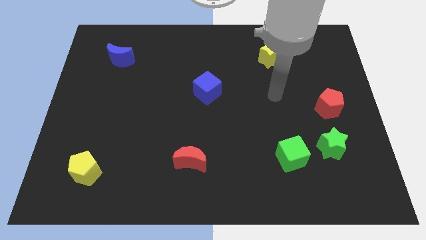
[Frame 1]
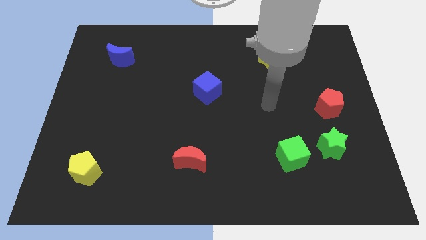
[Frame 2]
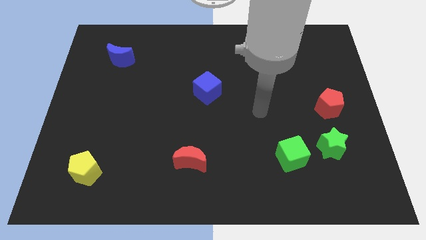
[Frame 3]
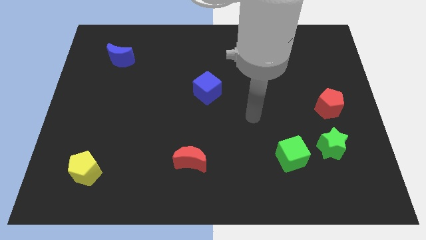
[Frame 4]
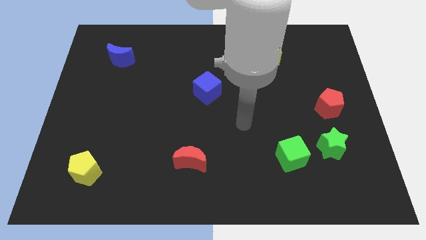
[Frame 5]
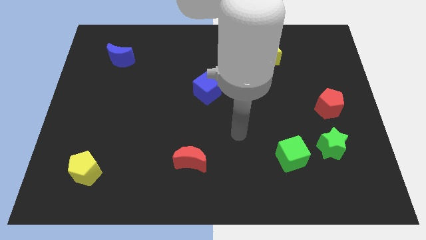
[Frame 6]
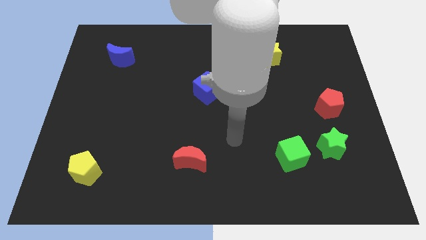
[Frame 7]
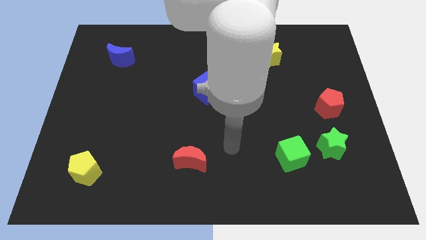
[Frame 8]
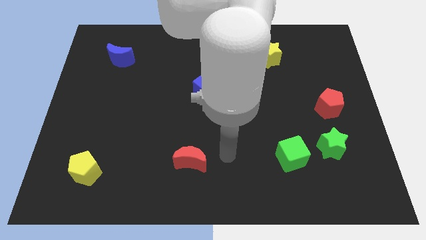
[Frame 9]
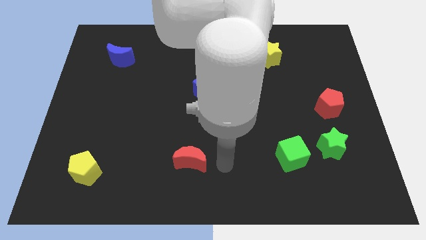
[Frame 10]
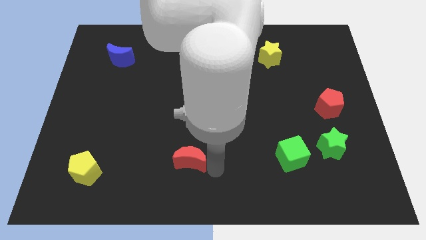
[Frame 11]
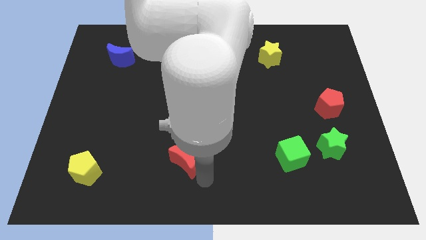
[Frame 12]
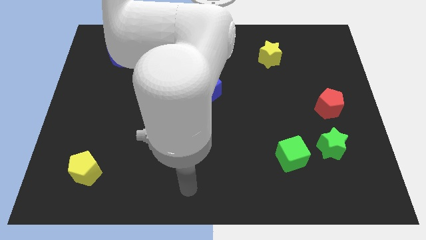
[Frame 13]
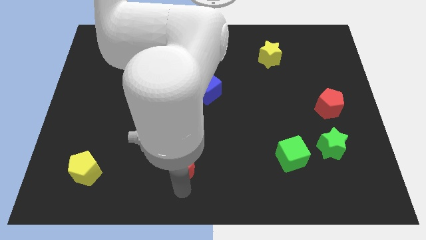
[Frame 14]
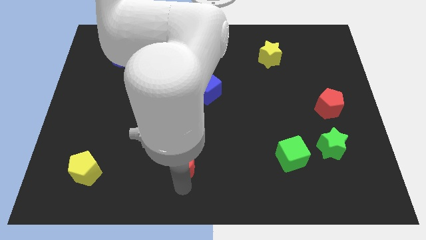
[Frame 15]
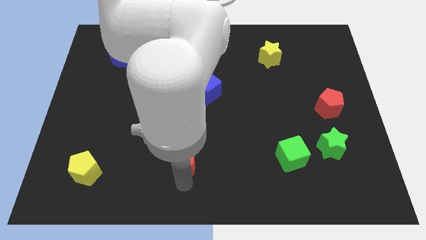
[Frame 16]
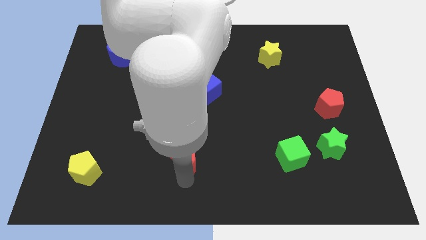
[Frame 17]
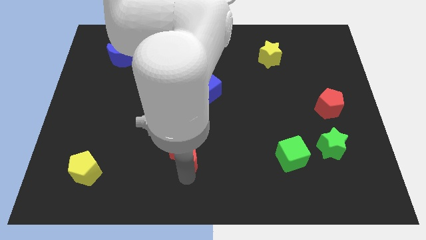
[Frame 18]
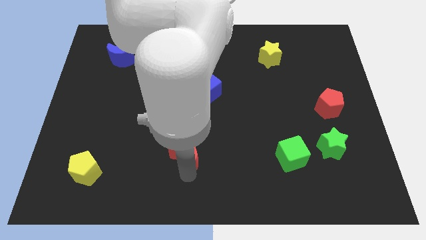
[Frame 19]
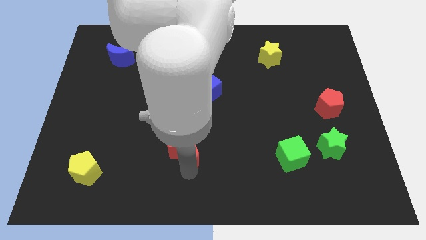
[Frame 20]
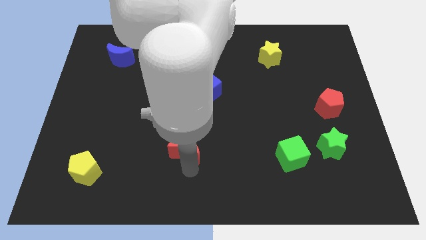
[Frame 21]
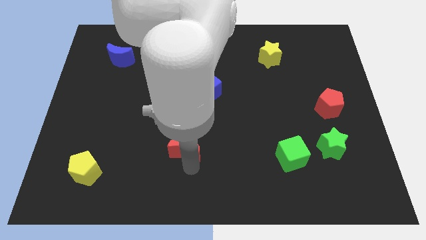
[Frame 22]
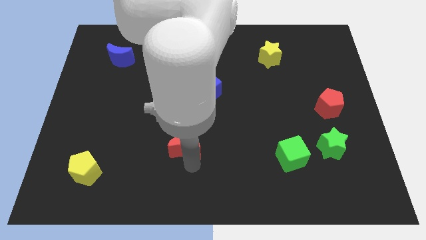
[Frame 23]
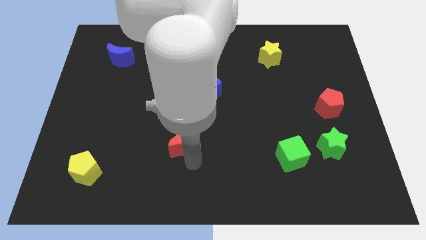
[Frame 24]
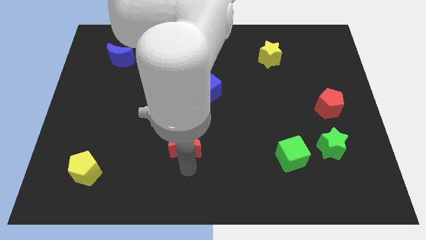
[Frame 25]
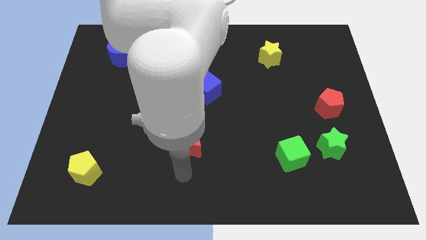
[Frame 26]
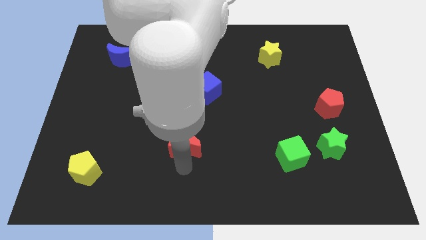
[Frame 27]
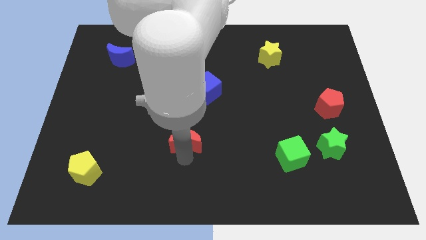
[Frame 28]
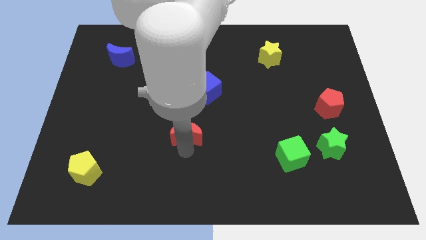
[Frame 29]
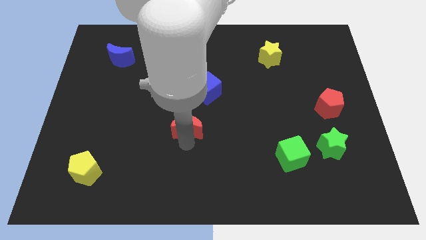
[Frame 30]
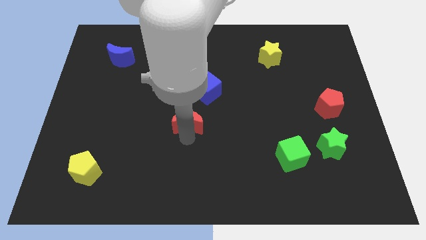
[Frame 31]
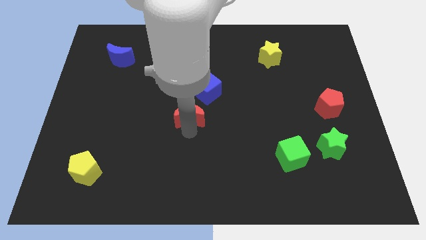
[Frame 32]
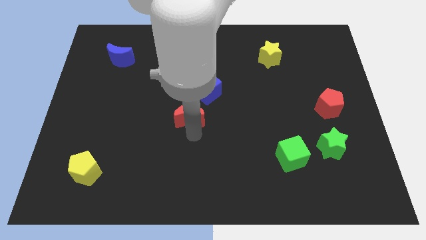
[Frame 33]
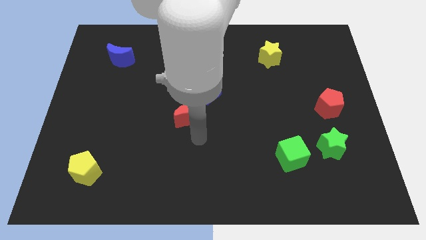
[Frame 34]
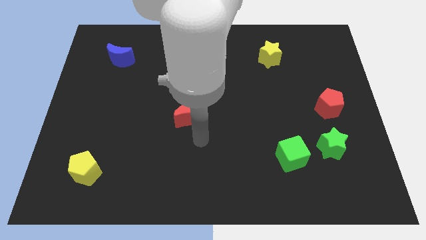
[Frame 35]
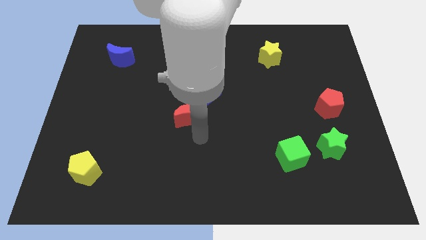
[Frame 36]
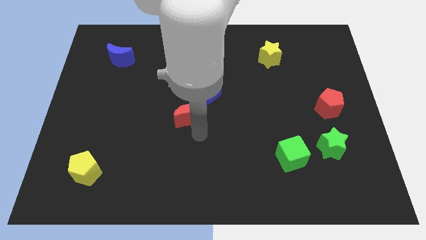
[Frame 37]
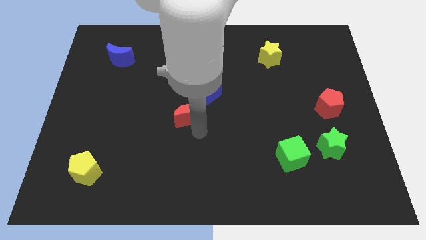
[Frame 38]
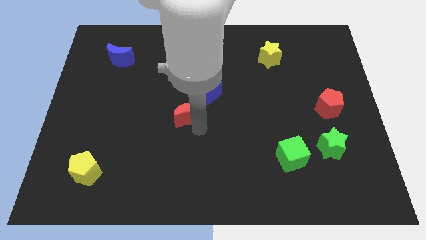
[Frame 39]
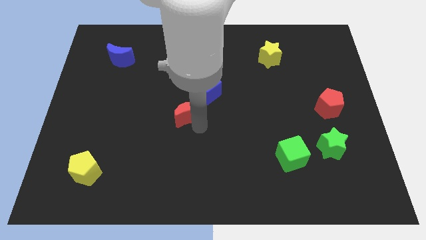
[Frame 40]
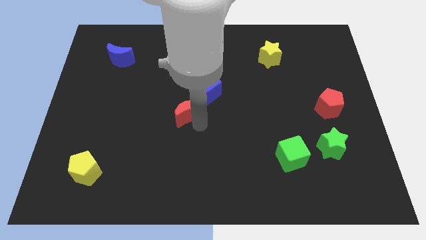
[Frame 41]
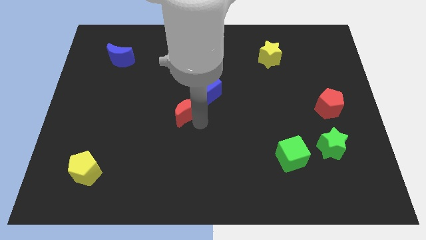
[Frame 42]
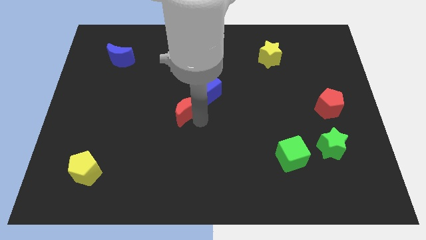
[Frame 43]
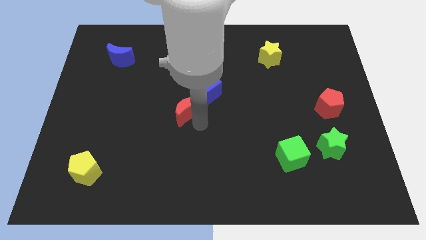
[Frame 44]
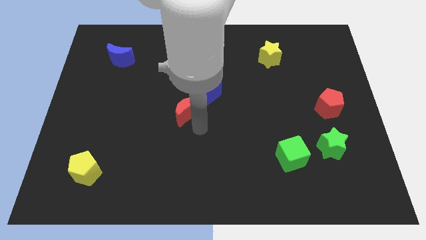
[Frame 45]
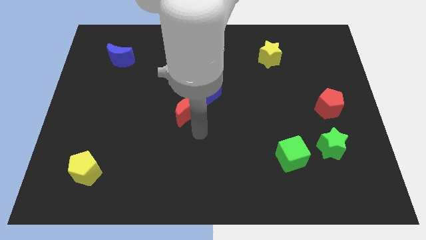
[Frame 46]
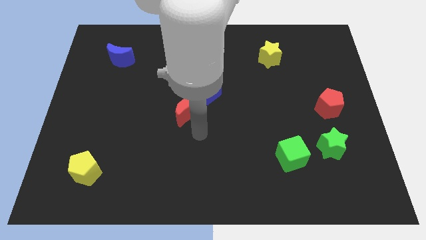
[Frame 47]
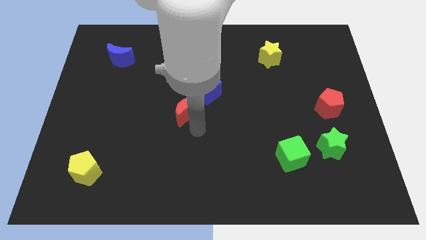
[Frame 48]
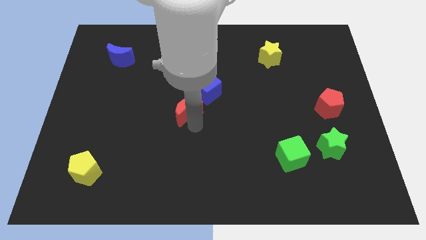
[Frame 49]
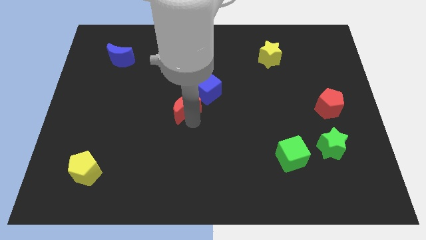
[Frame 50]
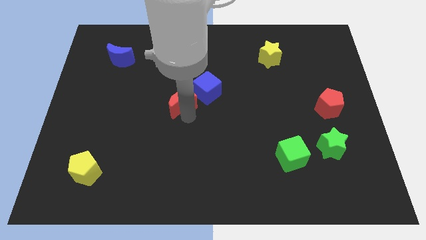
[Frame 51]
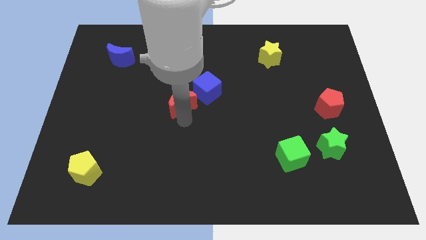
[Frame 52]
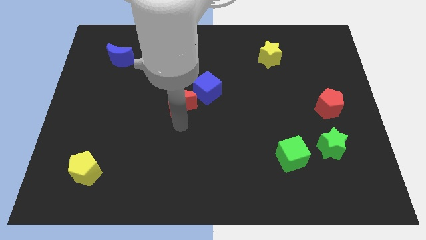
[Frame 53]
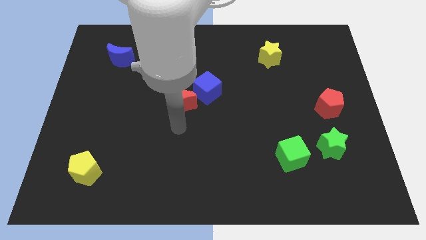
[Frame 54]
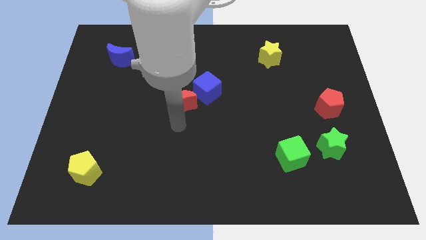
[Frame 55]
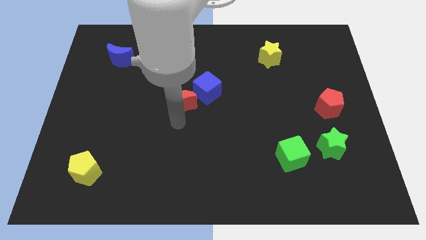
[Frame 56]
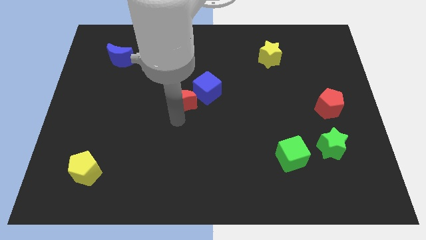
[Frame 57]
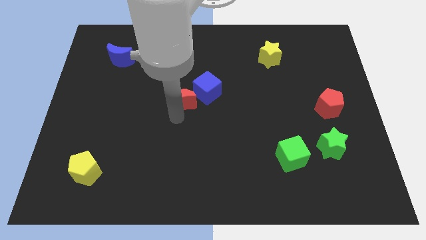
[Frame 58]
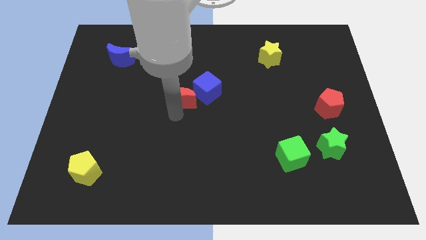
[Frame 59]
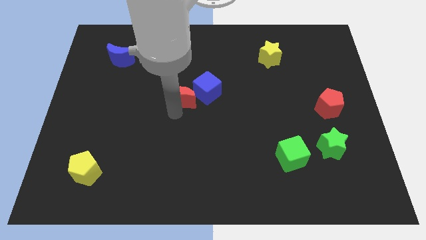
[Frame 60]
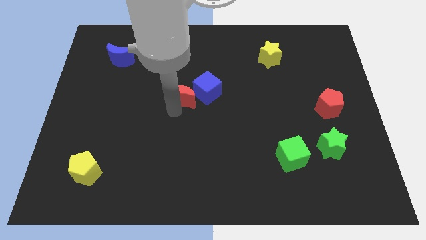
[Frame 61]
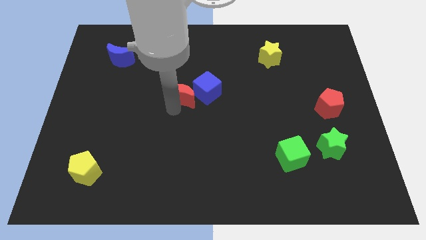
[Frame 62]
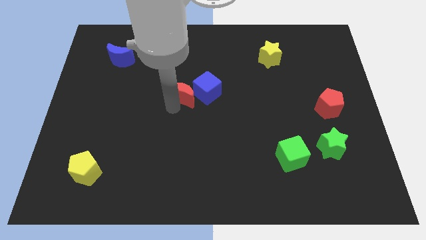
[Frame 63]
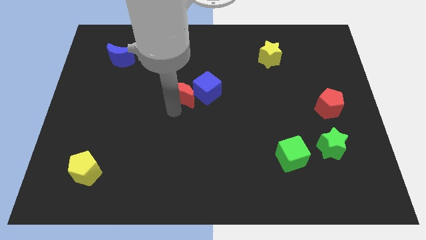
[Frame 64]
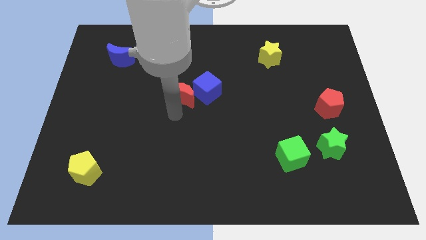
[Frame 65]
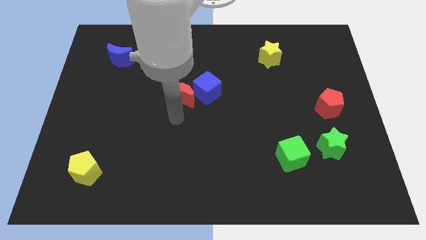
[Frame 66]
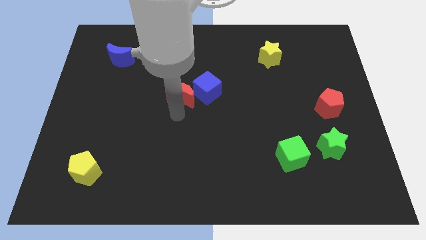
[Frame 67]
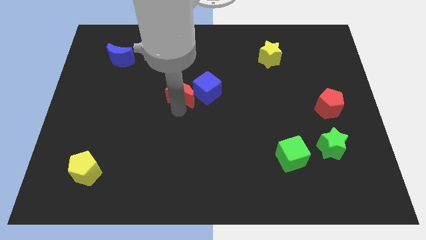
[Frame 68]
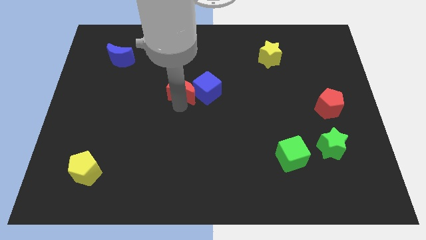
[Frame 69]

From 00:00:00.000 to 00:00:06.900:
put the red moon to the top left of the blue cube
